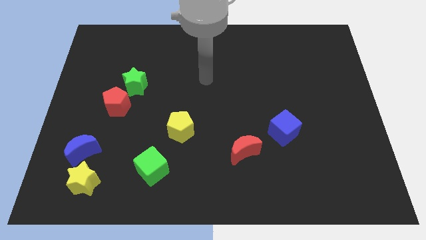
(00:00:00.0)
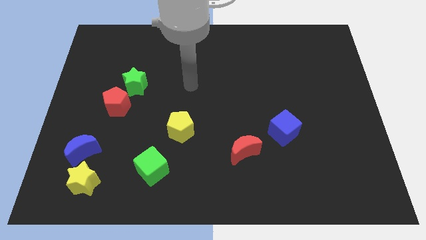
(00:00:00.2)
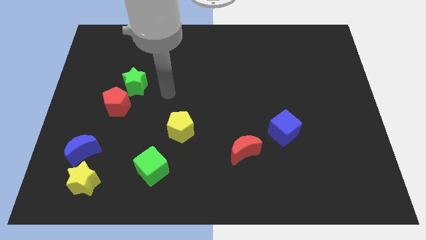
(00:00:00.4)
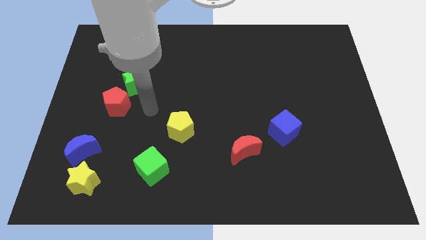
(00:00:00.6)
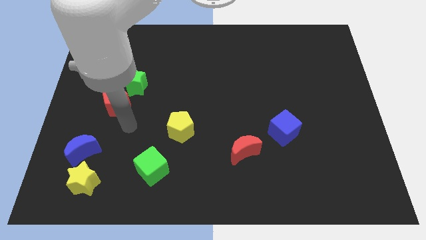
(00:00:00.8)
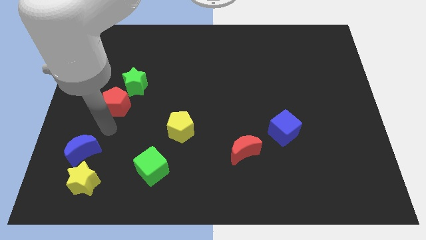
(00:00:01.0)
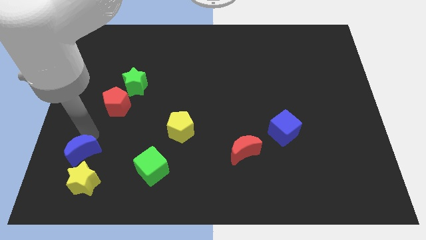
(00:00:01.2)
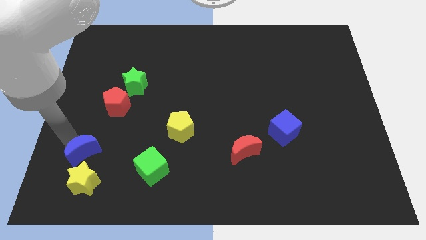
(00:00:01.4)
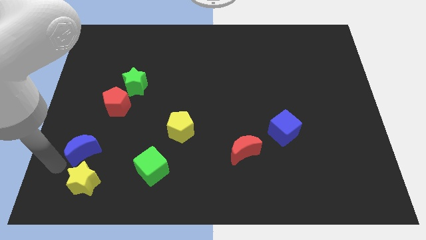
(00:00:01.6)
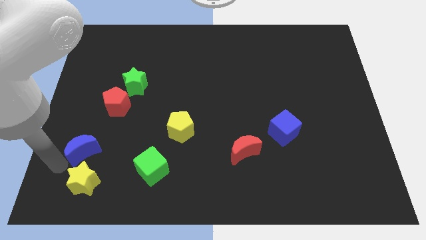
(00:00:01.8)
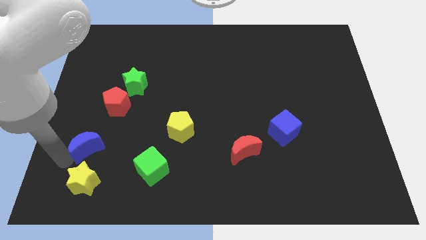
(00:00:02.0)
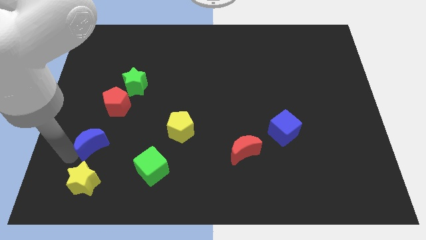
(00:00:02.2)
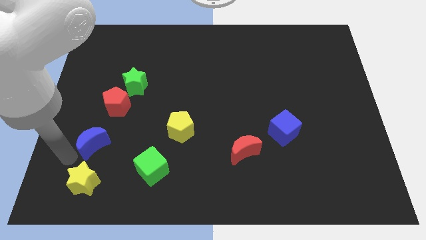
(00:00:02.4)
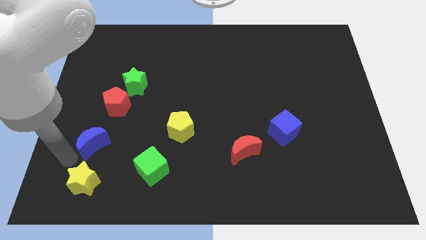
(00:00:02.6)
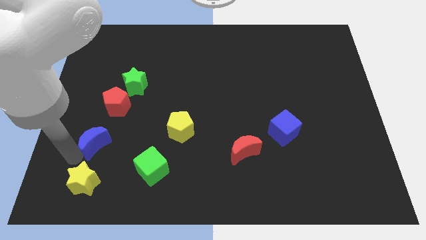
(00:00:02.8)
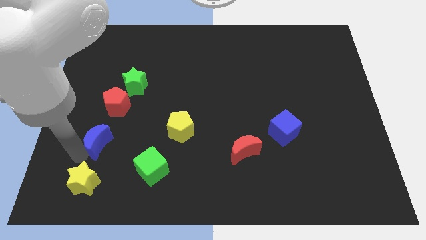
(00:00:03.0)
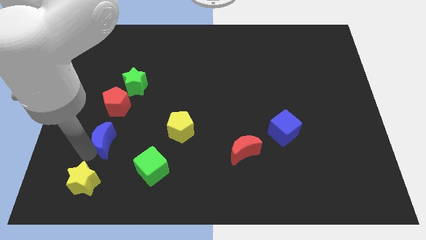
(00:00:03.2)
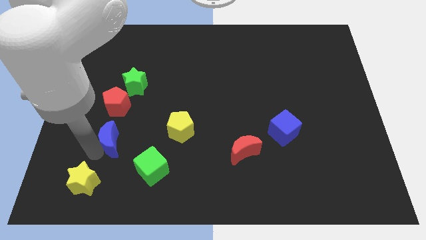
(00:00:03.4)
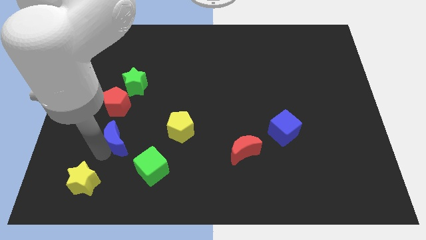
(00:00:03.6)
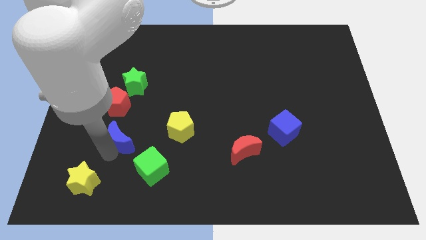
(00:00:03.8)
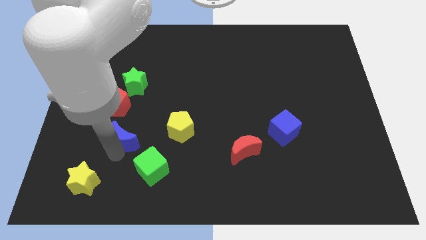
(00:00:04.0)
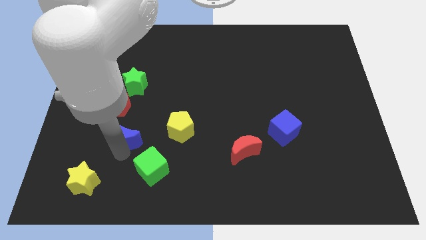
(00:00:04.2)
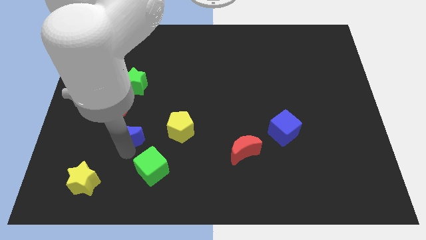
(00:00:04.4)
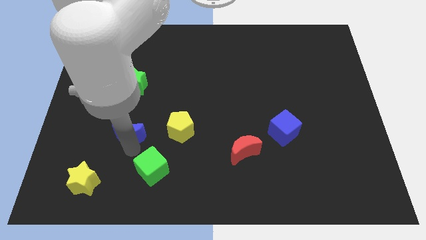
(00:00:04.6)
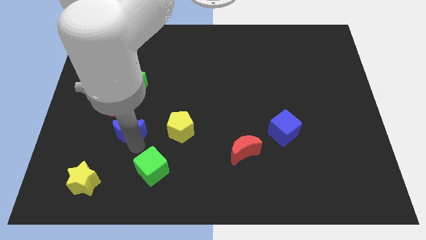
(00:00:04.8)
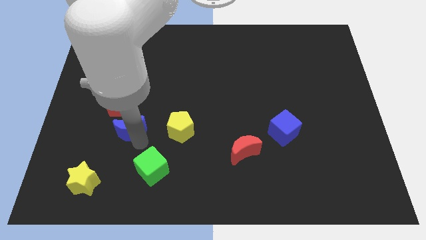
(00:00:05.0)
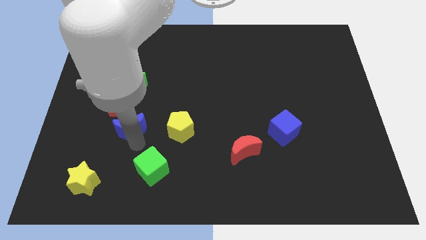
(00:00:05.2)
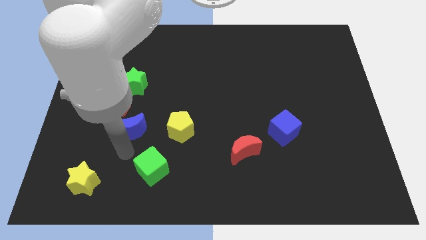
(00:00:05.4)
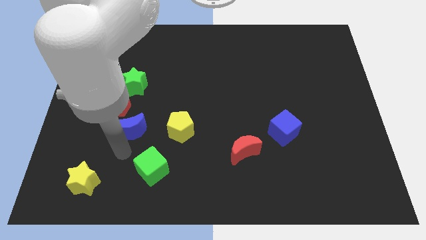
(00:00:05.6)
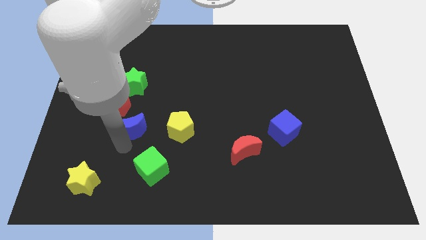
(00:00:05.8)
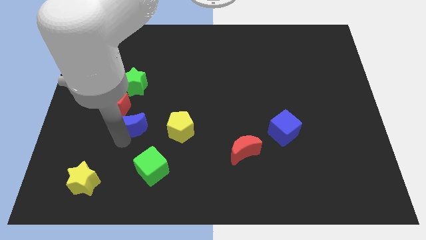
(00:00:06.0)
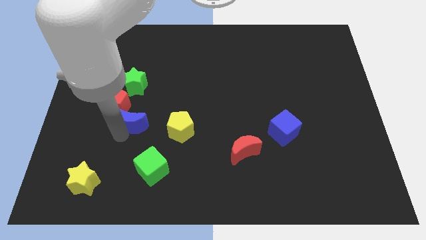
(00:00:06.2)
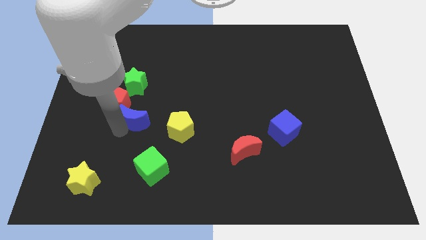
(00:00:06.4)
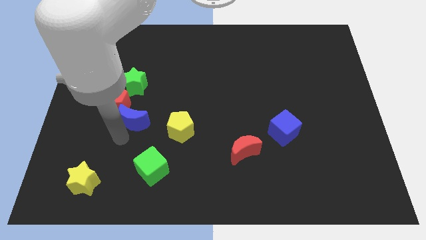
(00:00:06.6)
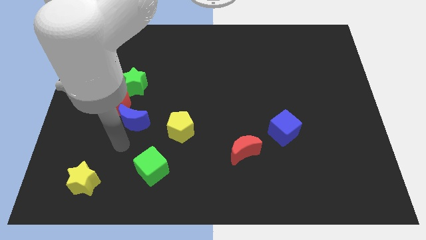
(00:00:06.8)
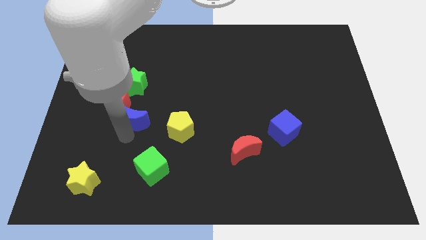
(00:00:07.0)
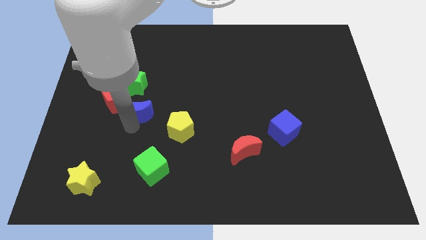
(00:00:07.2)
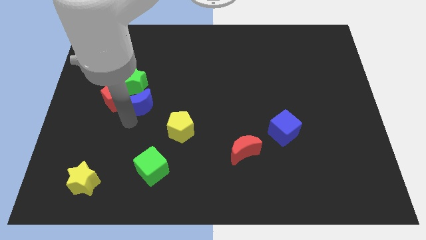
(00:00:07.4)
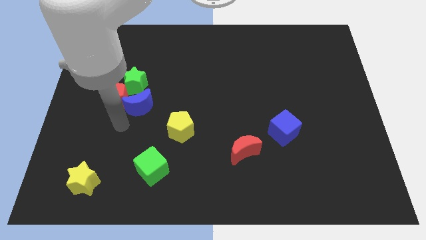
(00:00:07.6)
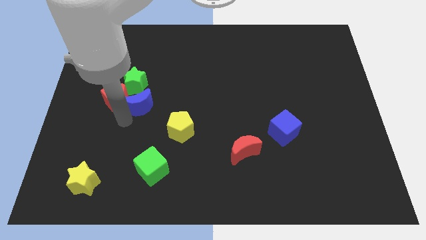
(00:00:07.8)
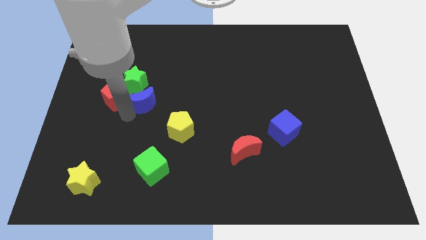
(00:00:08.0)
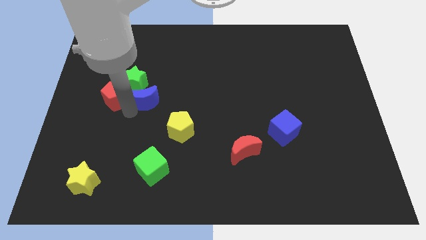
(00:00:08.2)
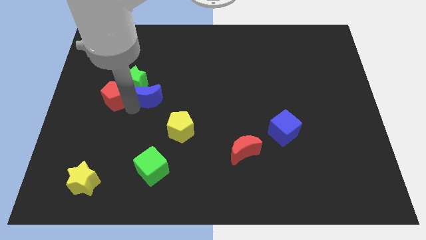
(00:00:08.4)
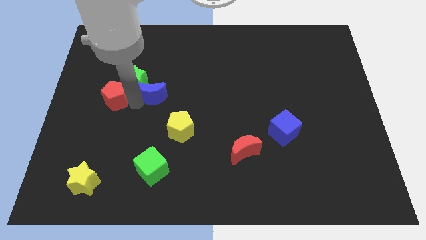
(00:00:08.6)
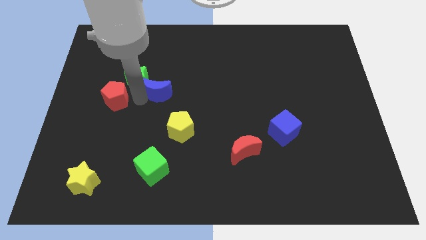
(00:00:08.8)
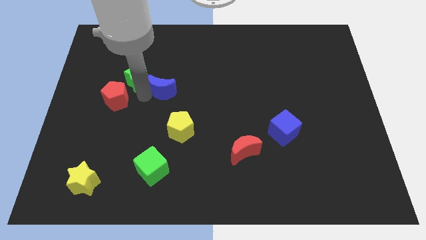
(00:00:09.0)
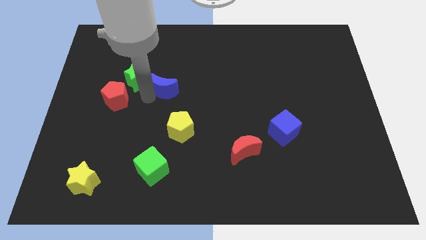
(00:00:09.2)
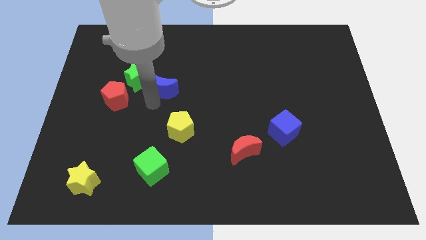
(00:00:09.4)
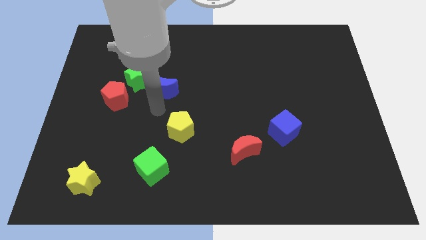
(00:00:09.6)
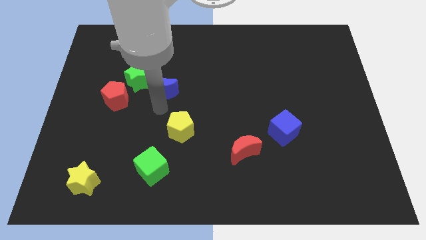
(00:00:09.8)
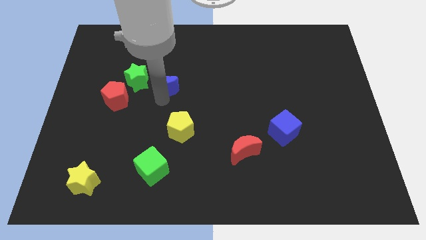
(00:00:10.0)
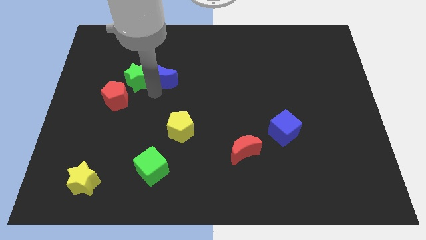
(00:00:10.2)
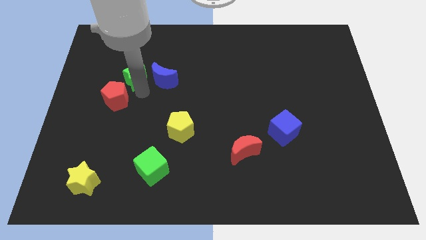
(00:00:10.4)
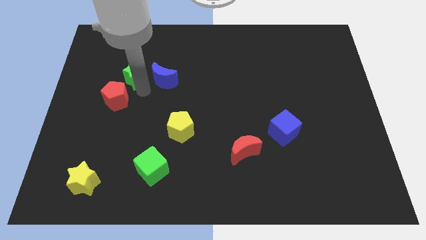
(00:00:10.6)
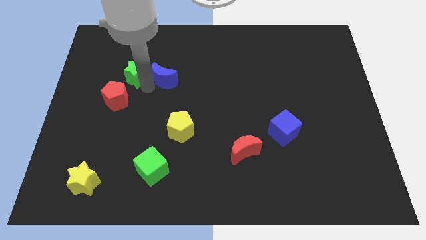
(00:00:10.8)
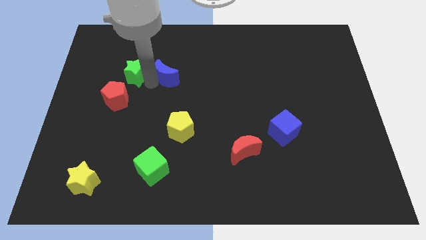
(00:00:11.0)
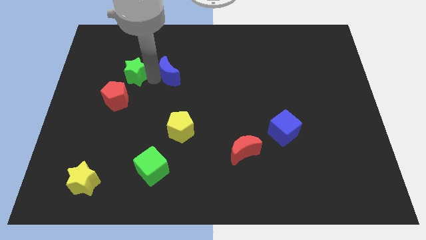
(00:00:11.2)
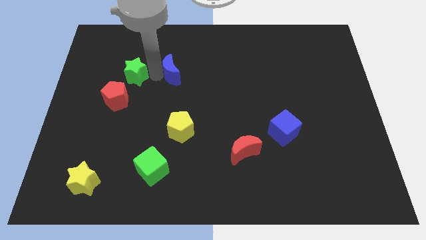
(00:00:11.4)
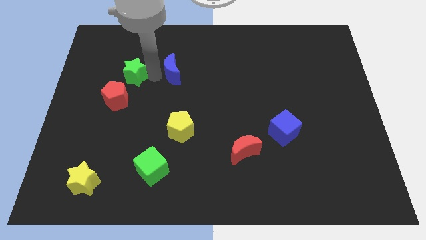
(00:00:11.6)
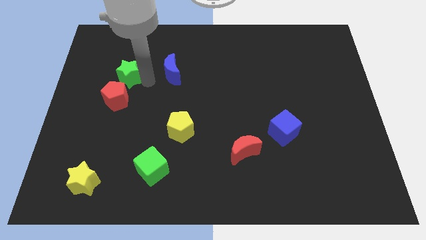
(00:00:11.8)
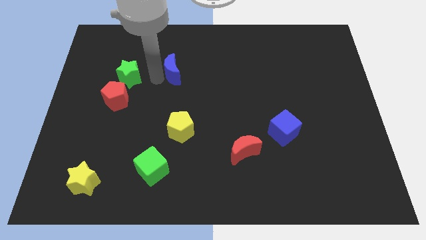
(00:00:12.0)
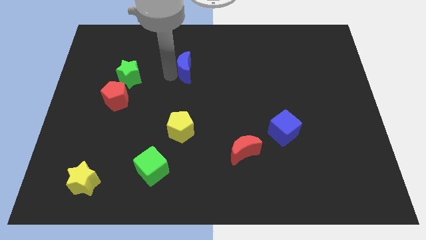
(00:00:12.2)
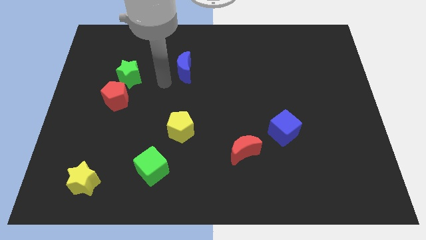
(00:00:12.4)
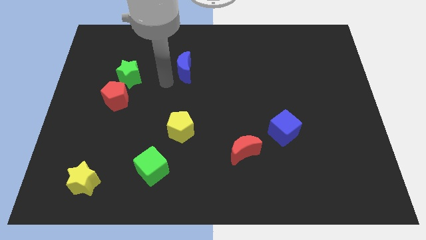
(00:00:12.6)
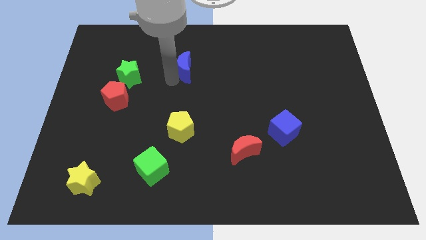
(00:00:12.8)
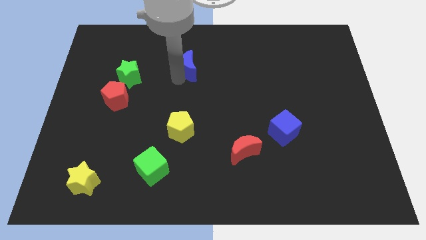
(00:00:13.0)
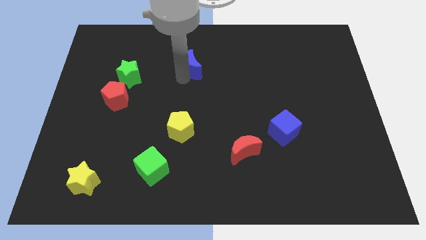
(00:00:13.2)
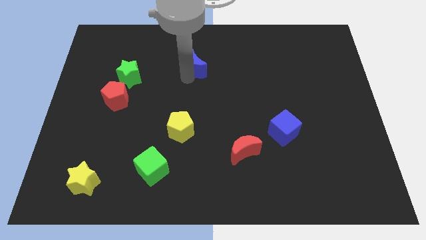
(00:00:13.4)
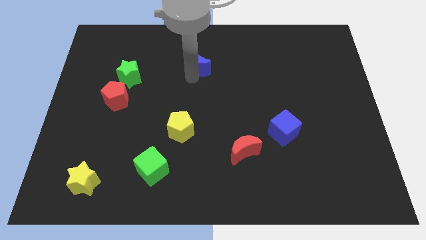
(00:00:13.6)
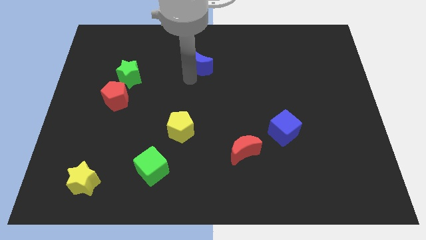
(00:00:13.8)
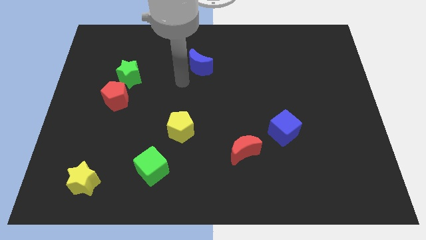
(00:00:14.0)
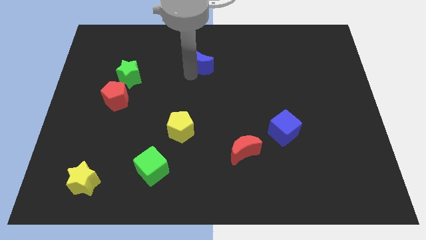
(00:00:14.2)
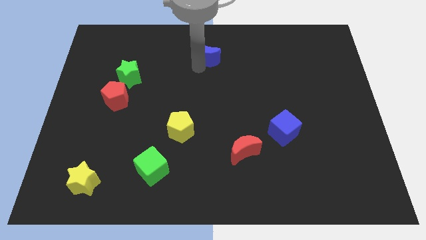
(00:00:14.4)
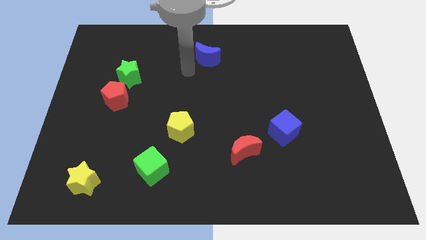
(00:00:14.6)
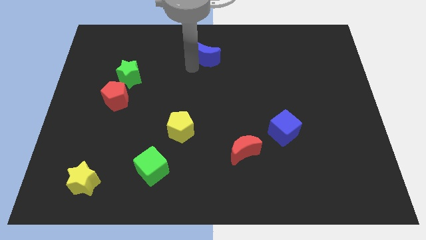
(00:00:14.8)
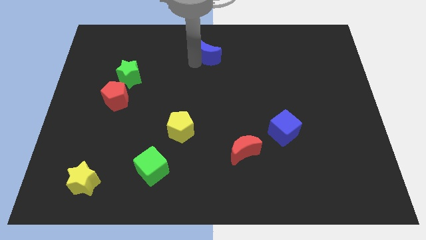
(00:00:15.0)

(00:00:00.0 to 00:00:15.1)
put the blue moon to the towards your base

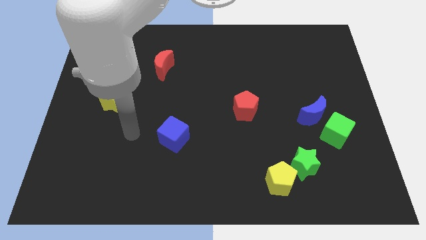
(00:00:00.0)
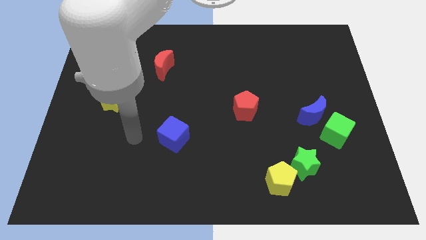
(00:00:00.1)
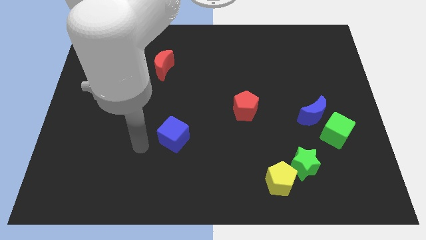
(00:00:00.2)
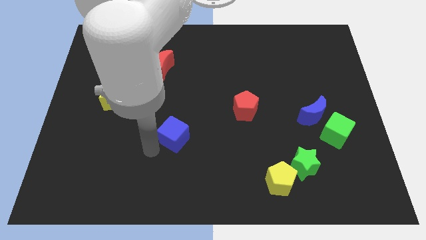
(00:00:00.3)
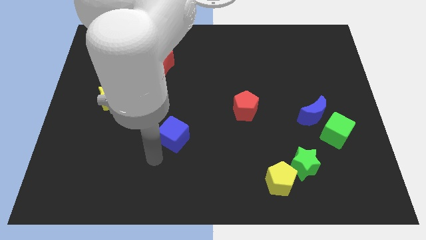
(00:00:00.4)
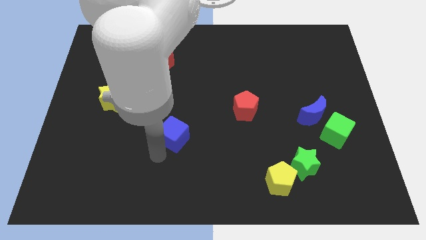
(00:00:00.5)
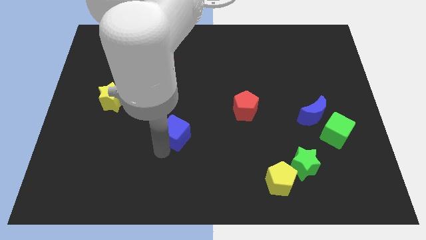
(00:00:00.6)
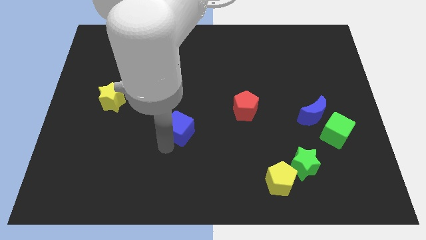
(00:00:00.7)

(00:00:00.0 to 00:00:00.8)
put the blue cube to the center
